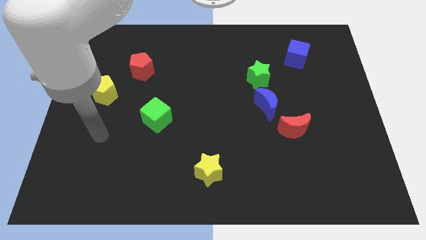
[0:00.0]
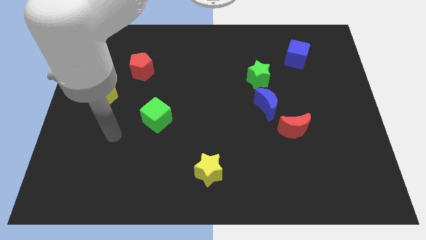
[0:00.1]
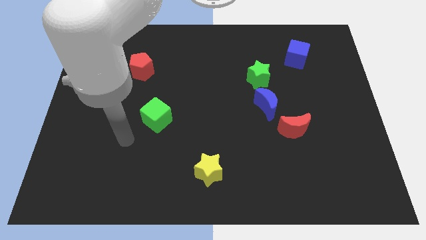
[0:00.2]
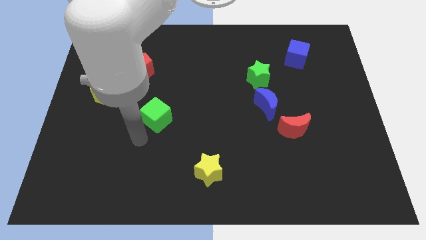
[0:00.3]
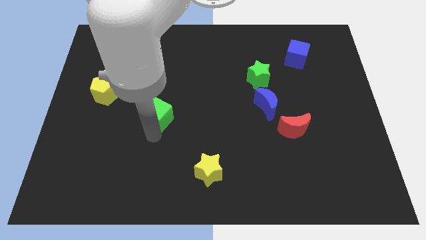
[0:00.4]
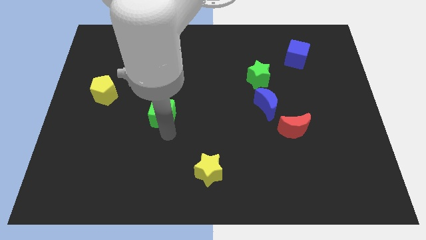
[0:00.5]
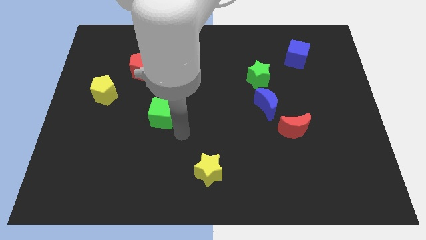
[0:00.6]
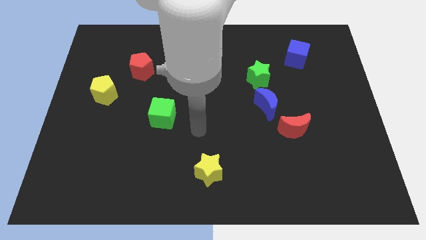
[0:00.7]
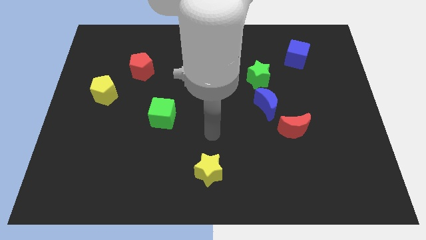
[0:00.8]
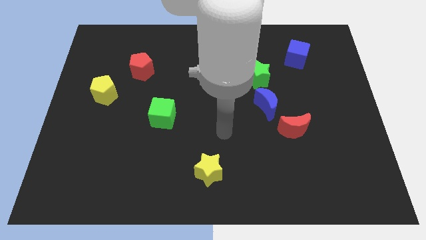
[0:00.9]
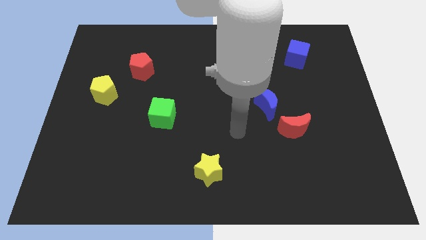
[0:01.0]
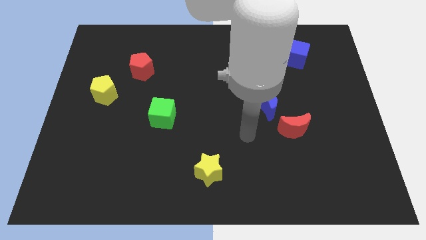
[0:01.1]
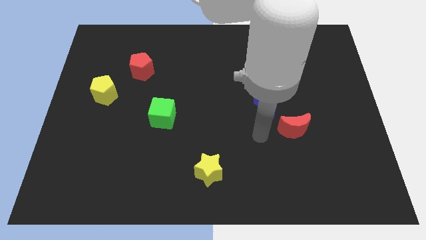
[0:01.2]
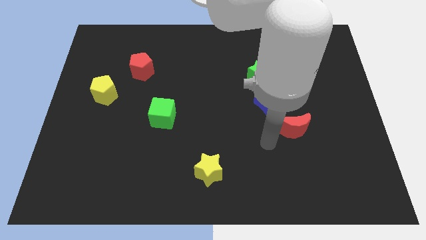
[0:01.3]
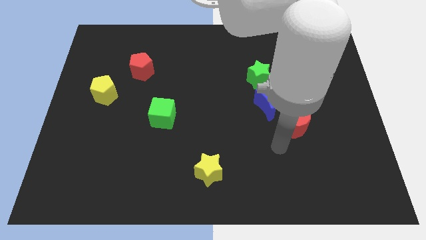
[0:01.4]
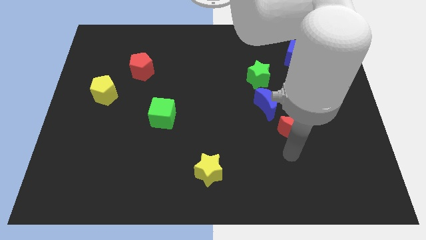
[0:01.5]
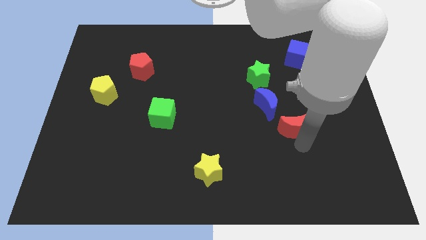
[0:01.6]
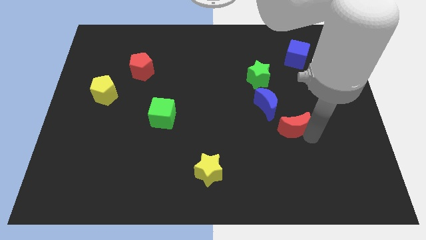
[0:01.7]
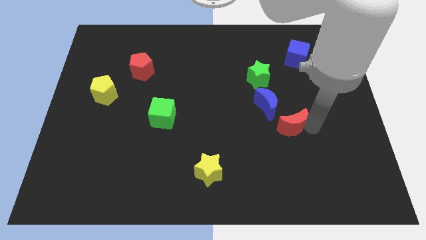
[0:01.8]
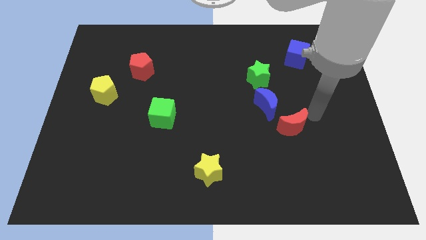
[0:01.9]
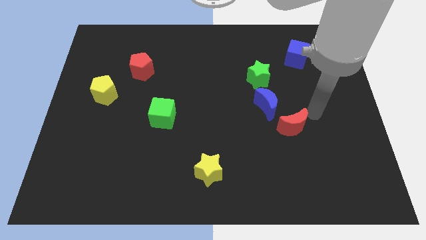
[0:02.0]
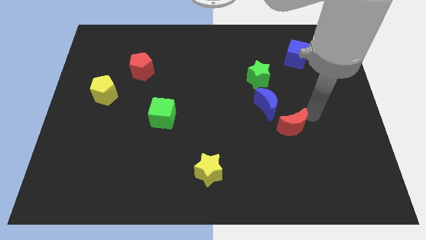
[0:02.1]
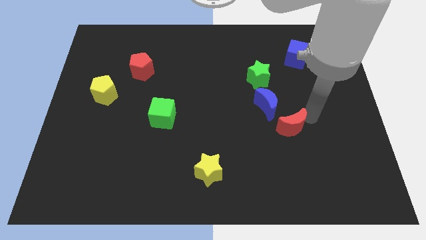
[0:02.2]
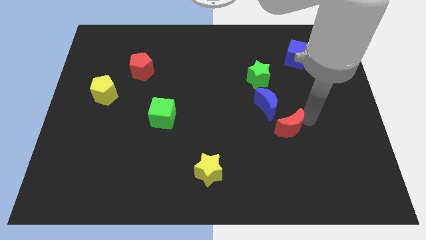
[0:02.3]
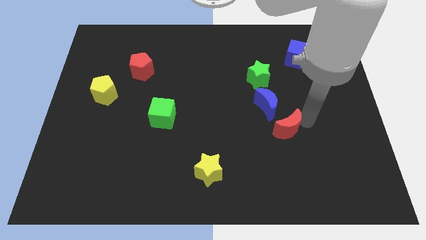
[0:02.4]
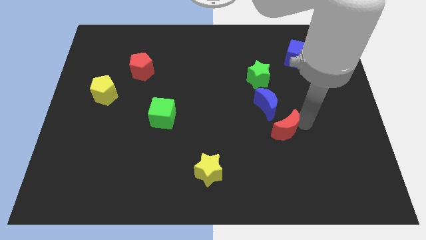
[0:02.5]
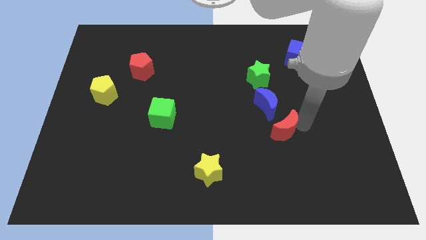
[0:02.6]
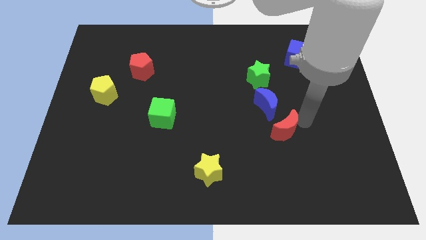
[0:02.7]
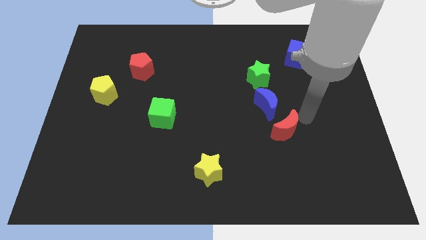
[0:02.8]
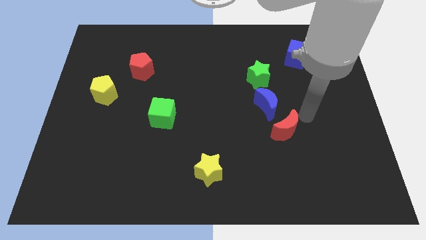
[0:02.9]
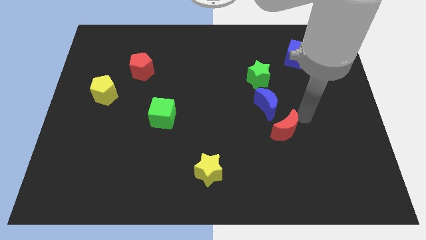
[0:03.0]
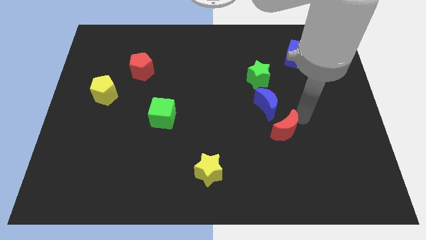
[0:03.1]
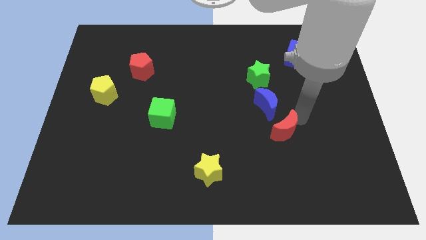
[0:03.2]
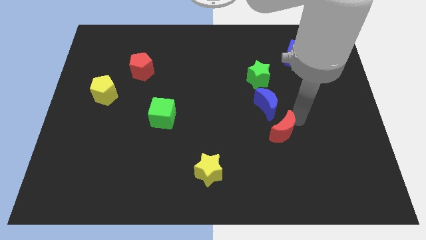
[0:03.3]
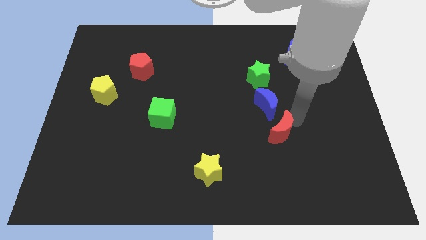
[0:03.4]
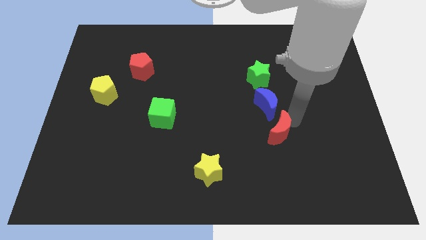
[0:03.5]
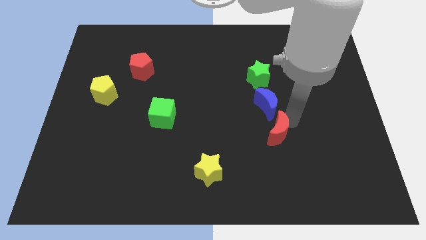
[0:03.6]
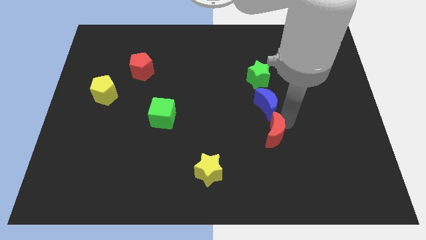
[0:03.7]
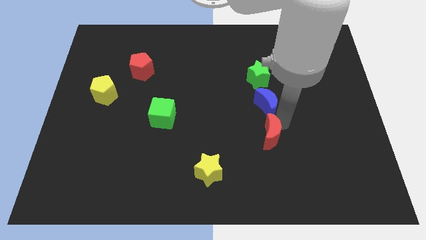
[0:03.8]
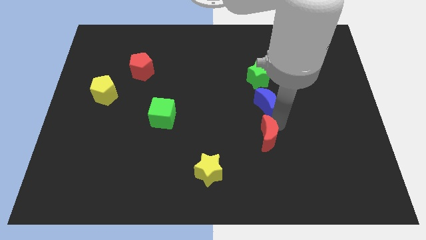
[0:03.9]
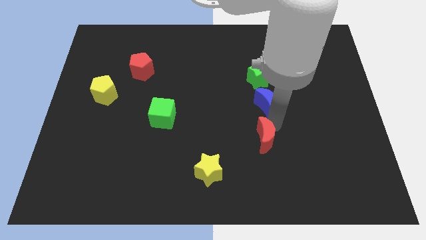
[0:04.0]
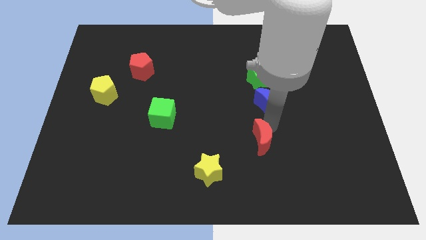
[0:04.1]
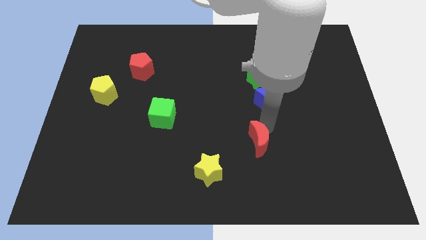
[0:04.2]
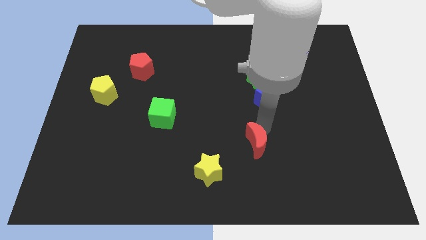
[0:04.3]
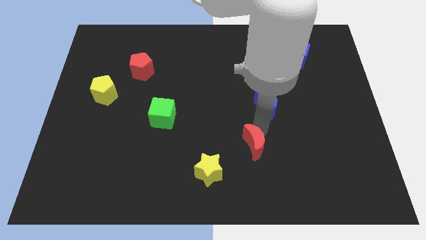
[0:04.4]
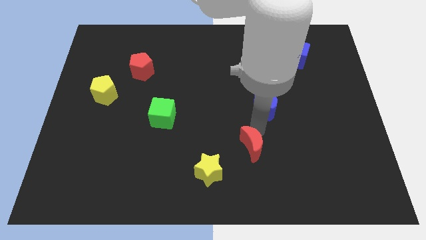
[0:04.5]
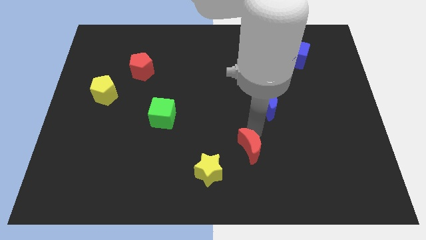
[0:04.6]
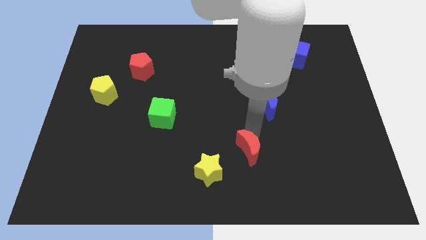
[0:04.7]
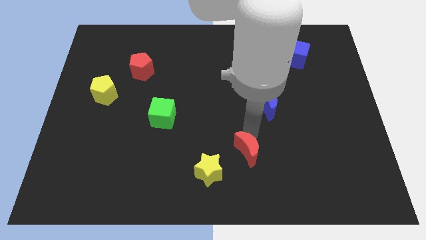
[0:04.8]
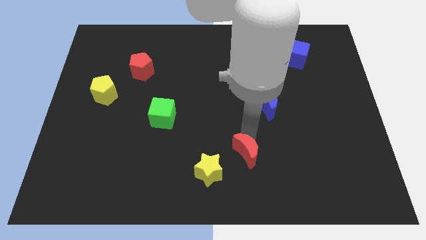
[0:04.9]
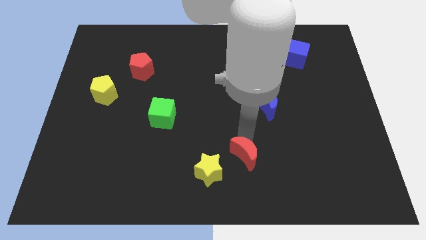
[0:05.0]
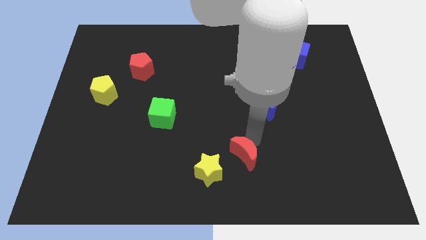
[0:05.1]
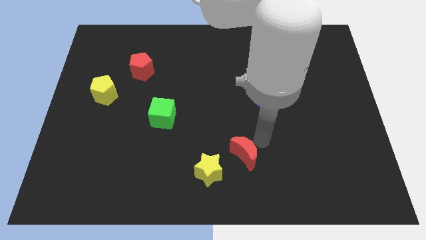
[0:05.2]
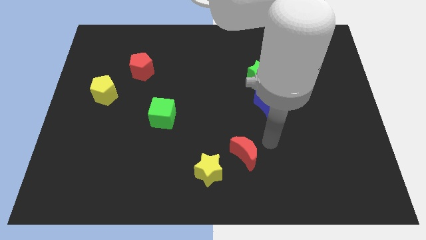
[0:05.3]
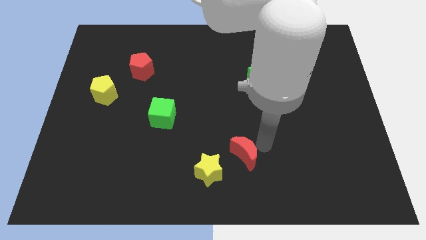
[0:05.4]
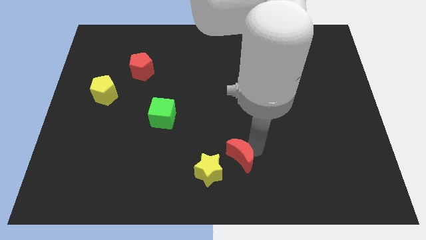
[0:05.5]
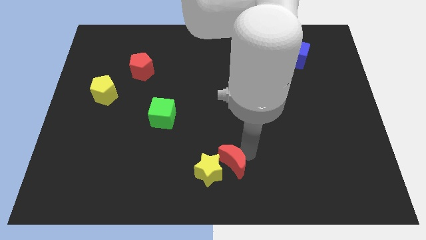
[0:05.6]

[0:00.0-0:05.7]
push the red moon towards the yellow star

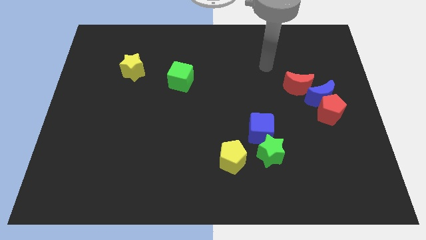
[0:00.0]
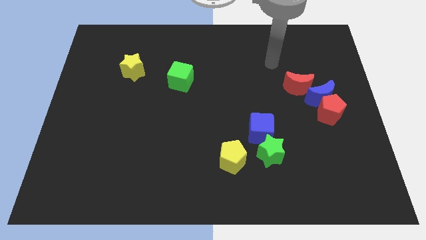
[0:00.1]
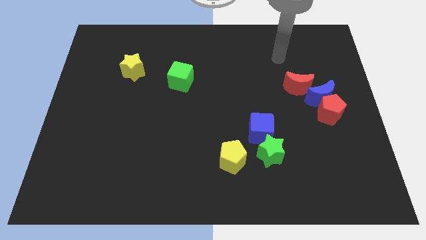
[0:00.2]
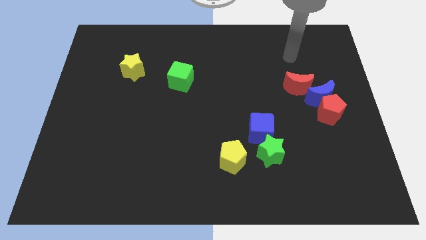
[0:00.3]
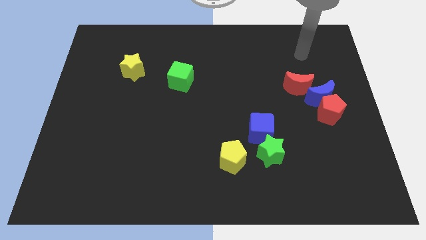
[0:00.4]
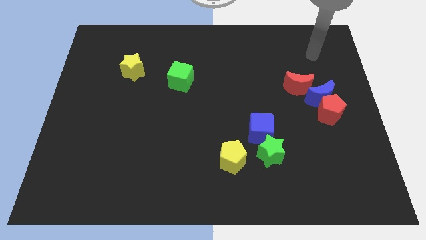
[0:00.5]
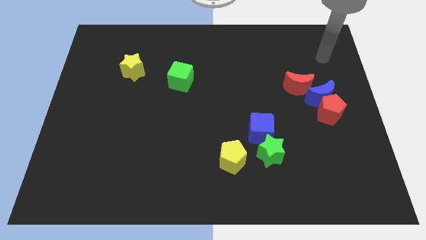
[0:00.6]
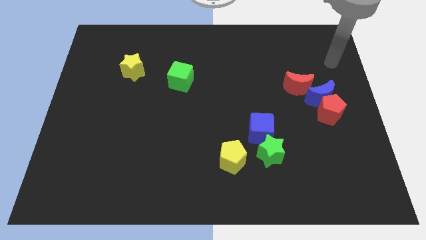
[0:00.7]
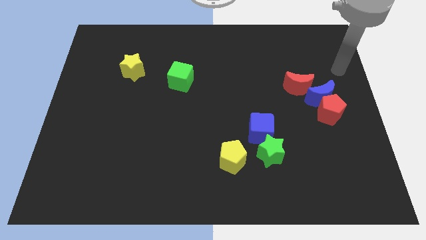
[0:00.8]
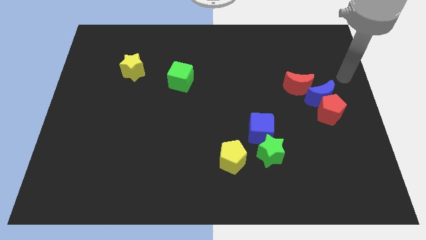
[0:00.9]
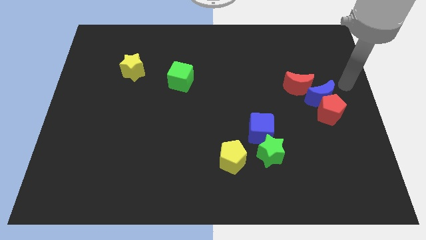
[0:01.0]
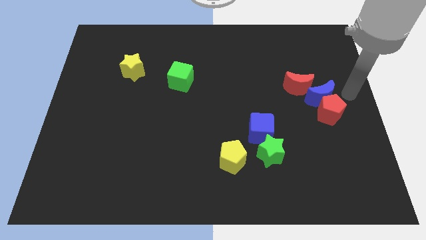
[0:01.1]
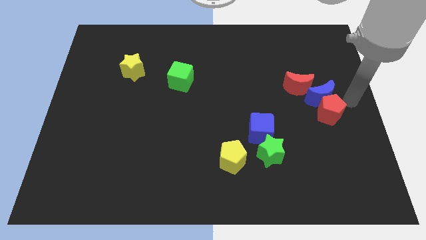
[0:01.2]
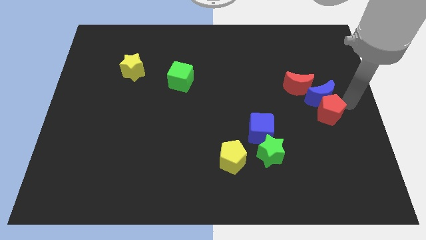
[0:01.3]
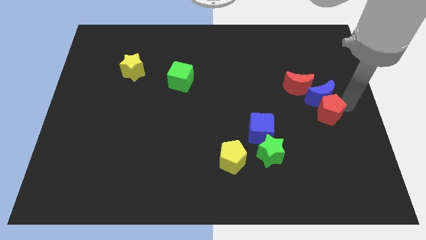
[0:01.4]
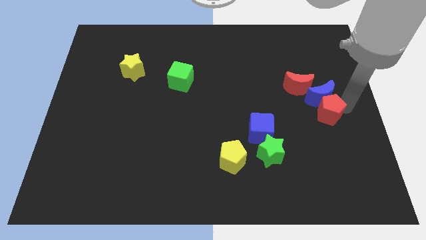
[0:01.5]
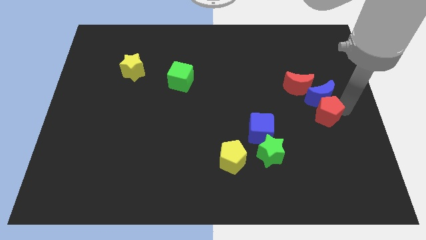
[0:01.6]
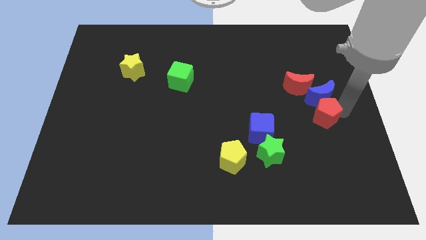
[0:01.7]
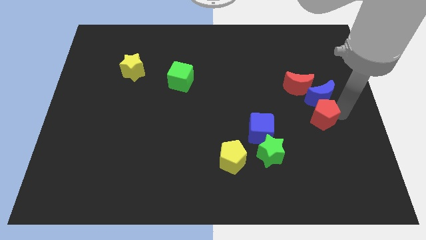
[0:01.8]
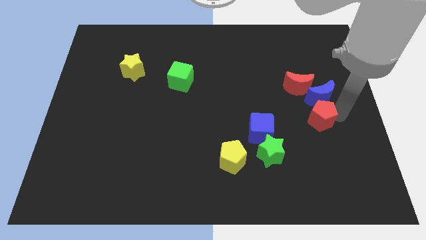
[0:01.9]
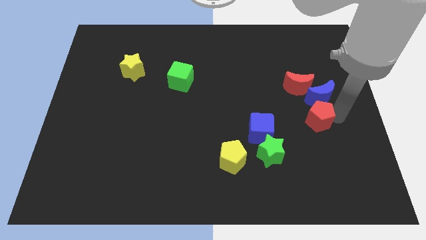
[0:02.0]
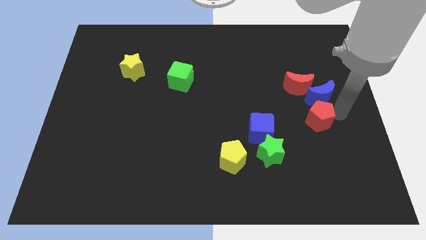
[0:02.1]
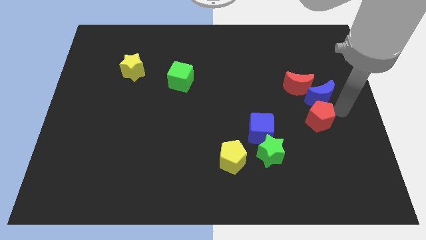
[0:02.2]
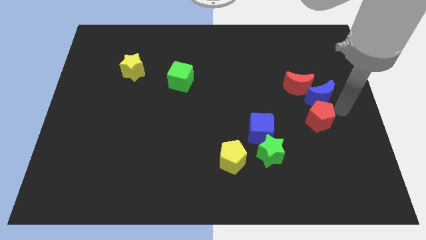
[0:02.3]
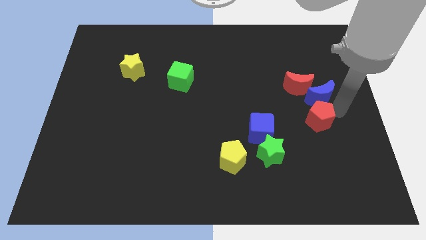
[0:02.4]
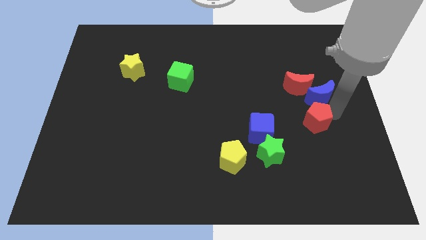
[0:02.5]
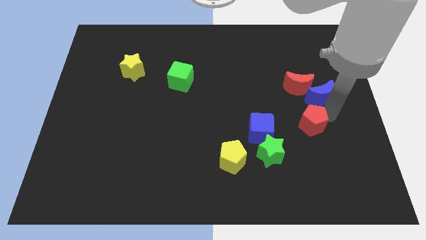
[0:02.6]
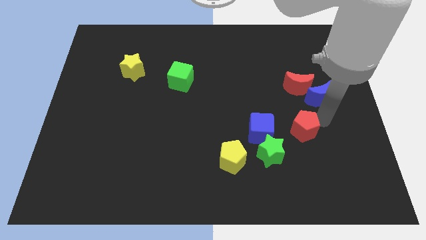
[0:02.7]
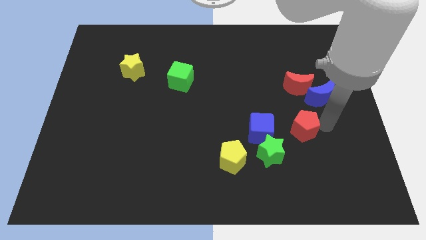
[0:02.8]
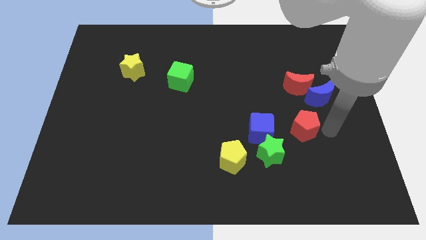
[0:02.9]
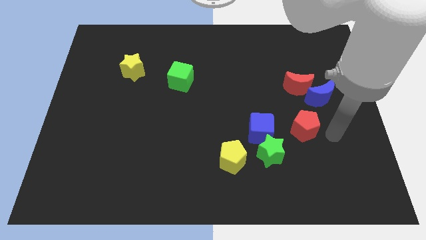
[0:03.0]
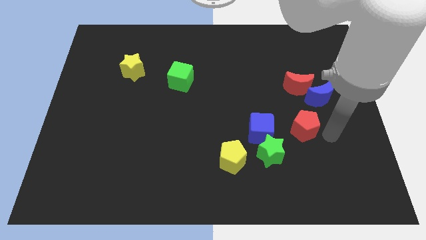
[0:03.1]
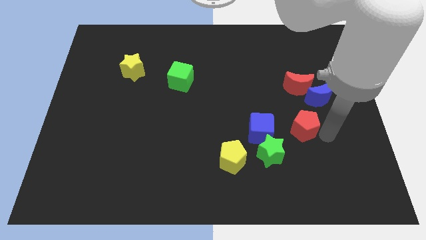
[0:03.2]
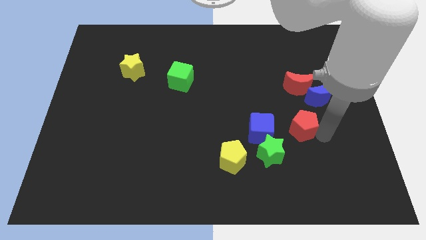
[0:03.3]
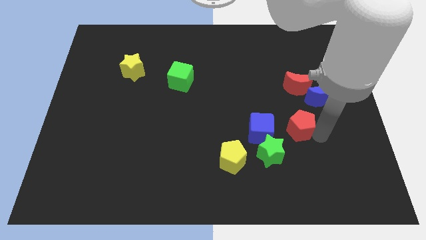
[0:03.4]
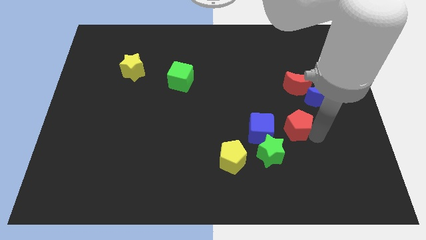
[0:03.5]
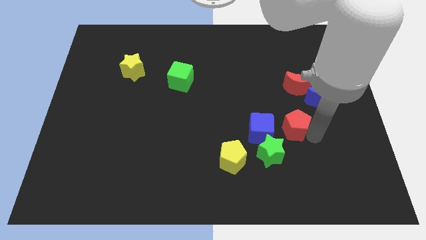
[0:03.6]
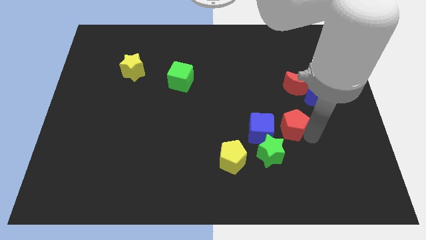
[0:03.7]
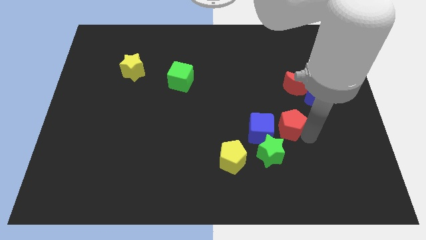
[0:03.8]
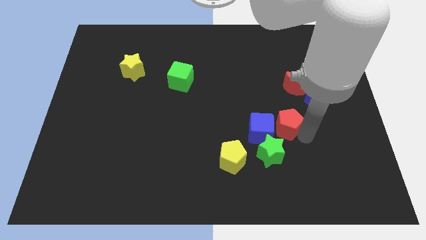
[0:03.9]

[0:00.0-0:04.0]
slide the red pentagon close to the blue cube
